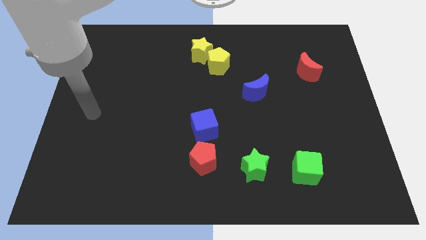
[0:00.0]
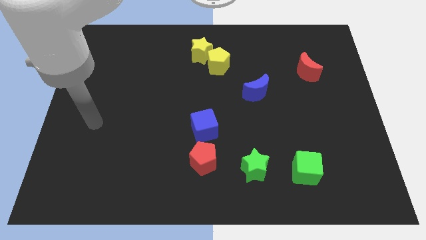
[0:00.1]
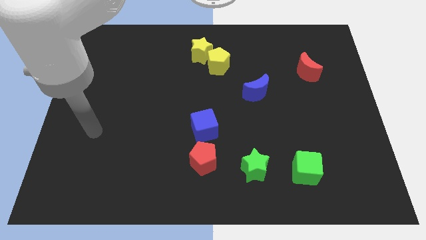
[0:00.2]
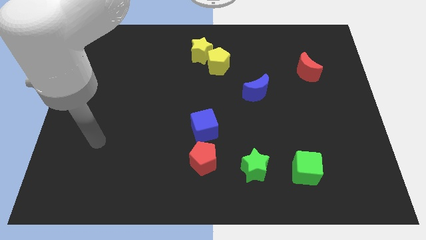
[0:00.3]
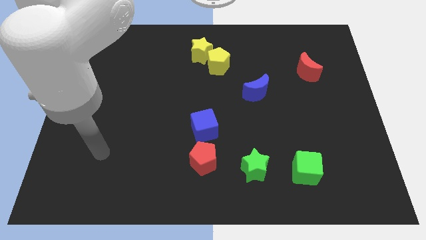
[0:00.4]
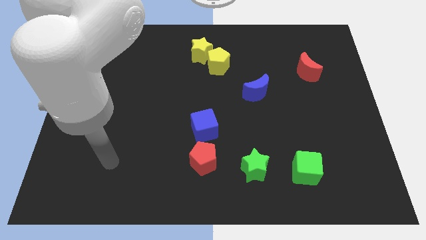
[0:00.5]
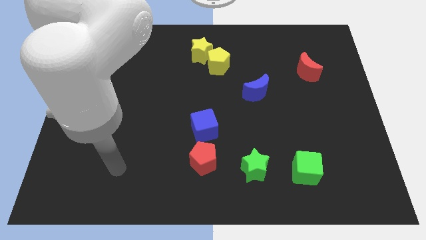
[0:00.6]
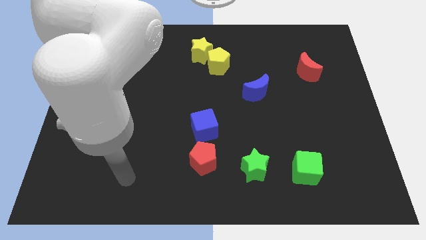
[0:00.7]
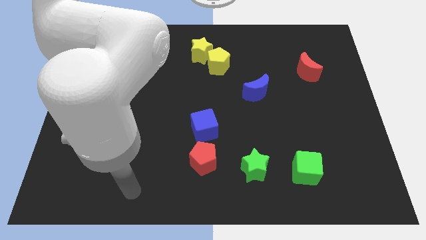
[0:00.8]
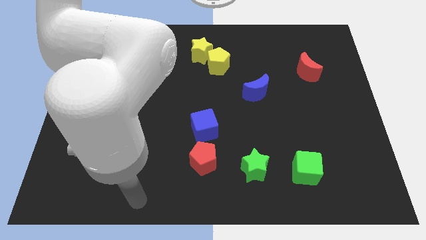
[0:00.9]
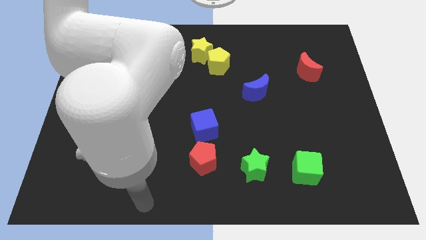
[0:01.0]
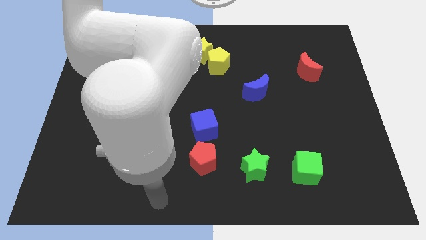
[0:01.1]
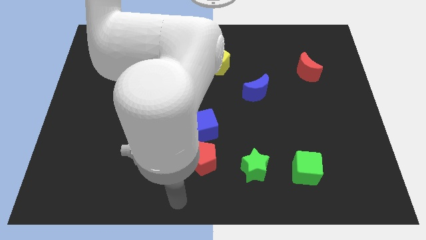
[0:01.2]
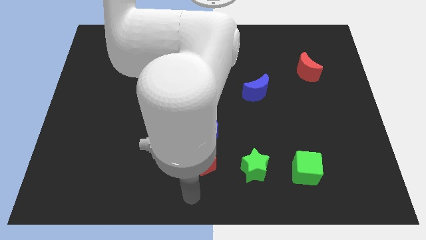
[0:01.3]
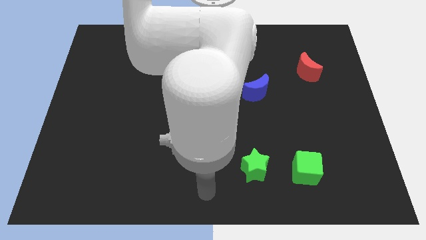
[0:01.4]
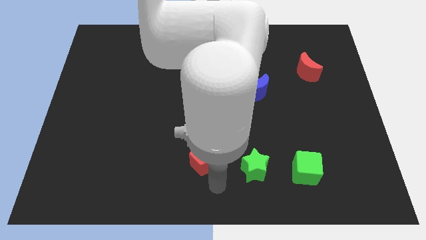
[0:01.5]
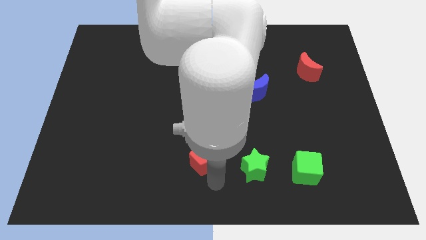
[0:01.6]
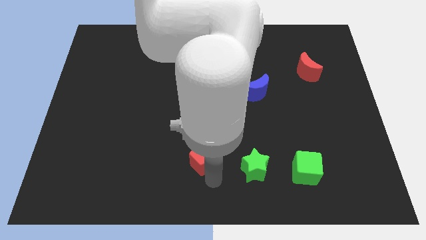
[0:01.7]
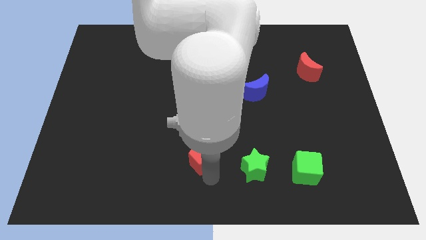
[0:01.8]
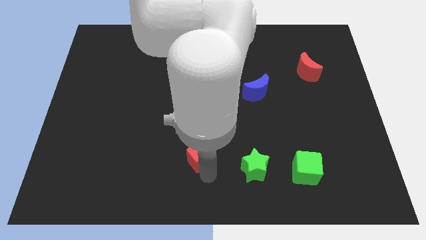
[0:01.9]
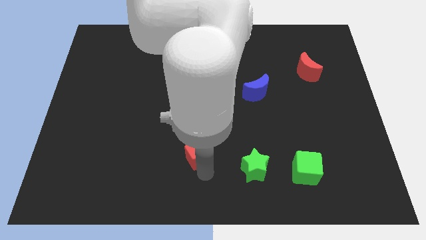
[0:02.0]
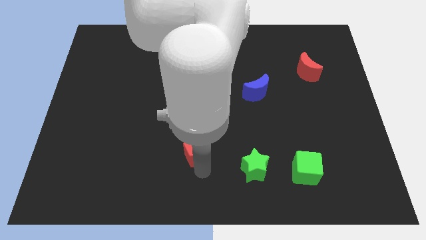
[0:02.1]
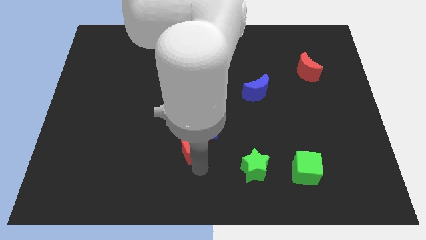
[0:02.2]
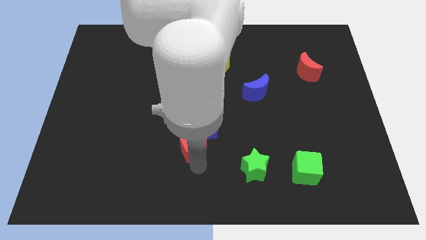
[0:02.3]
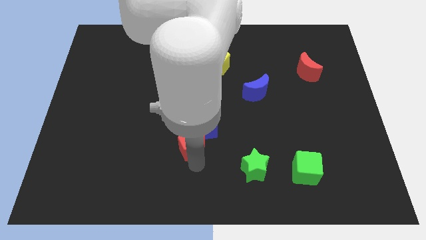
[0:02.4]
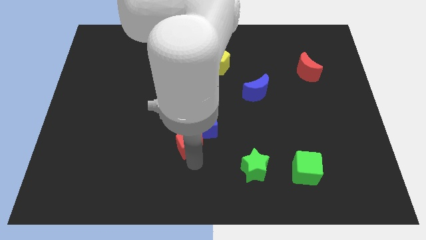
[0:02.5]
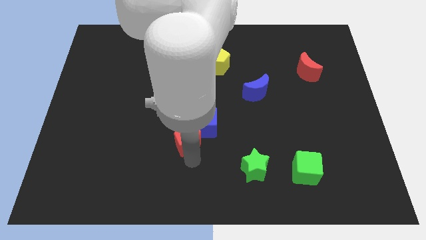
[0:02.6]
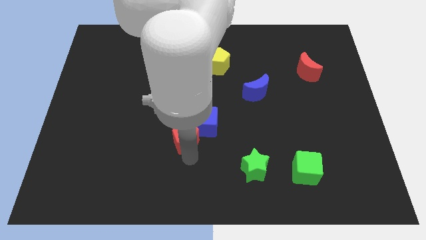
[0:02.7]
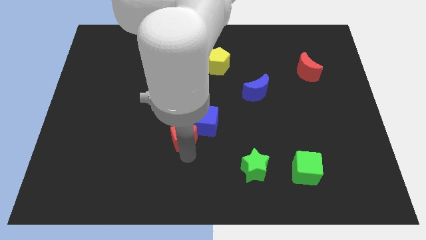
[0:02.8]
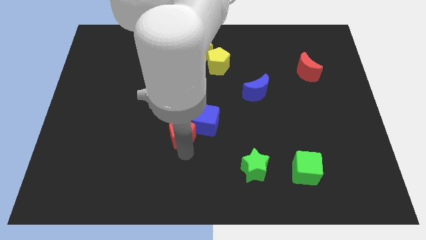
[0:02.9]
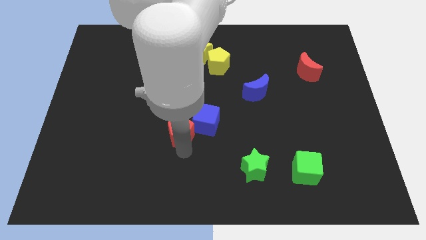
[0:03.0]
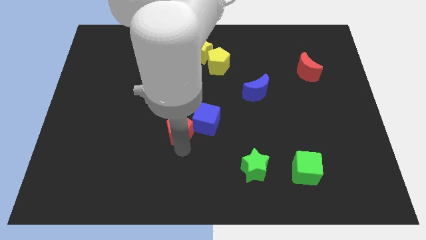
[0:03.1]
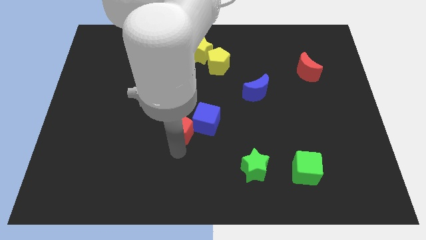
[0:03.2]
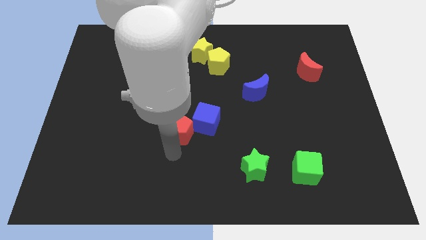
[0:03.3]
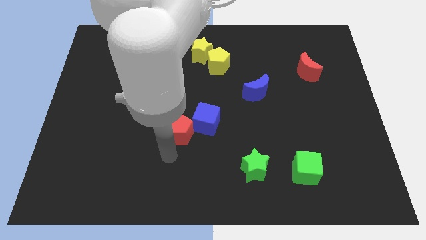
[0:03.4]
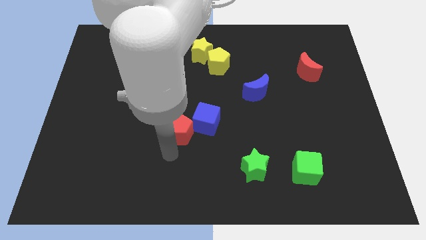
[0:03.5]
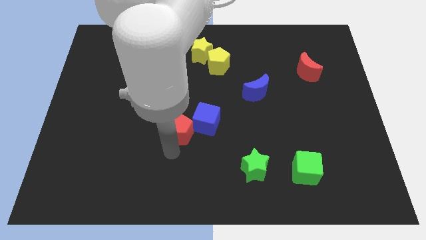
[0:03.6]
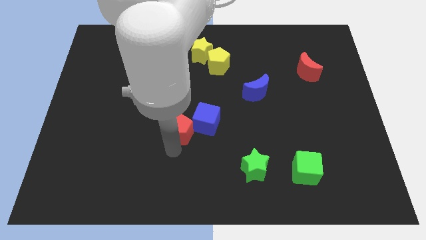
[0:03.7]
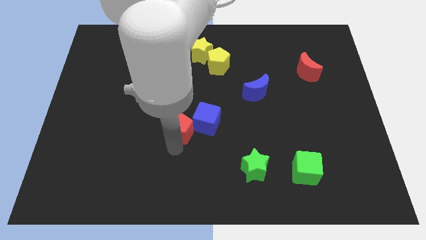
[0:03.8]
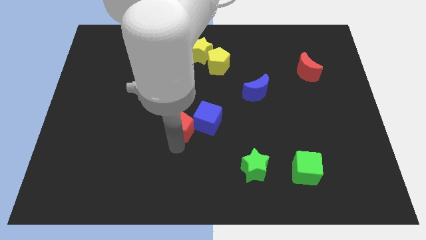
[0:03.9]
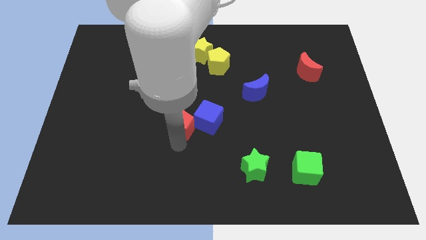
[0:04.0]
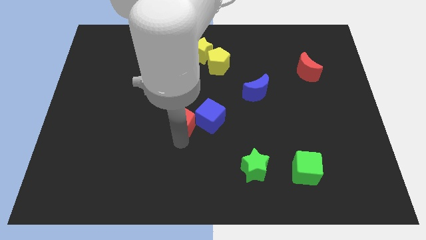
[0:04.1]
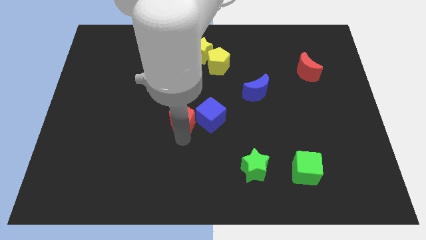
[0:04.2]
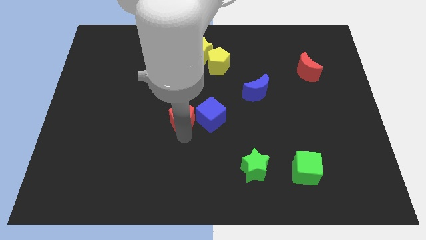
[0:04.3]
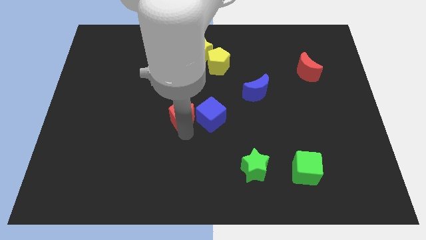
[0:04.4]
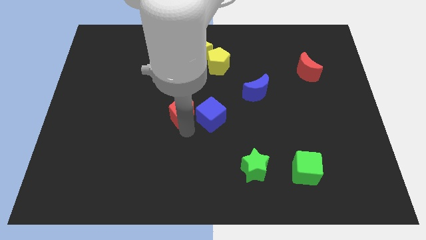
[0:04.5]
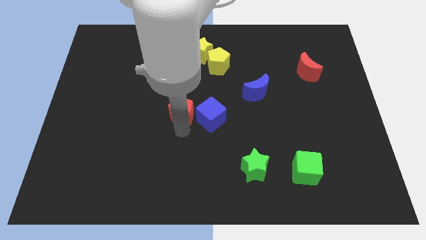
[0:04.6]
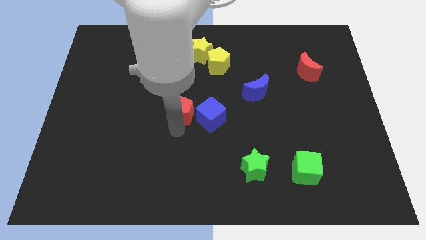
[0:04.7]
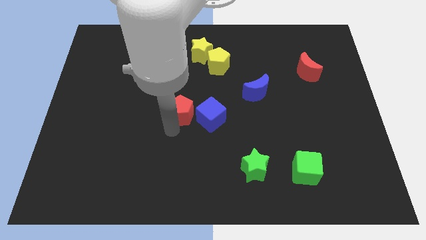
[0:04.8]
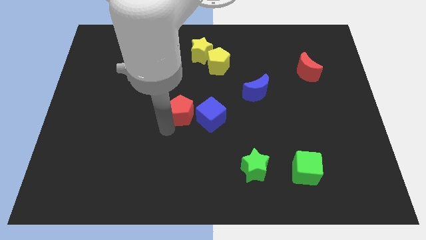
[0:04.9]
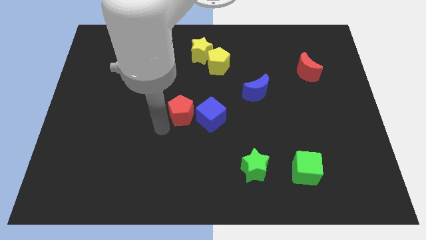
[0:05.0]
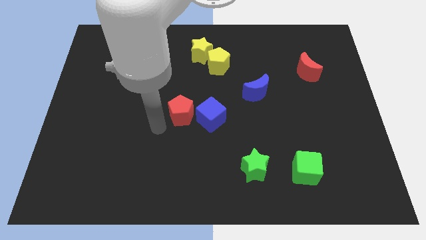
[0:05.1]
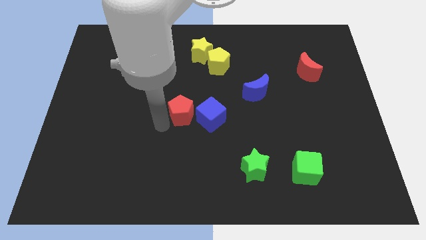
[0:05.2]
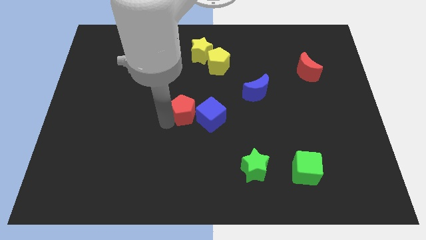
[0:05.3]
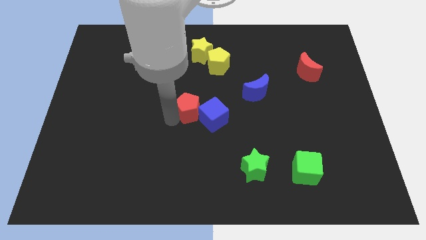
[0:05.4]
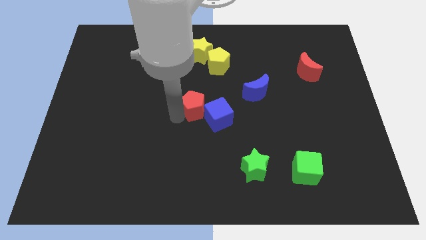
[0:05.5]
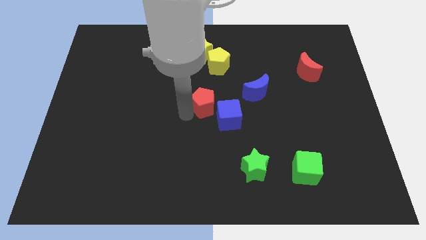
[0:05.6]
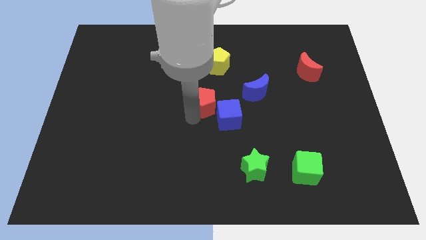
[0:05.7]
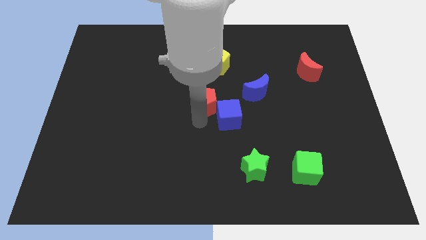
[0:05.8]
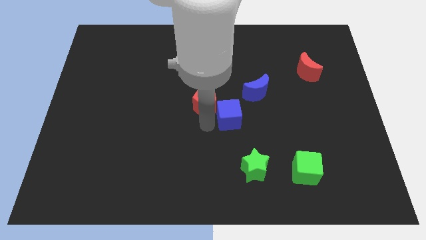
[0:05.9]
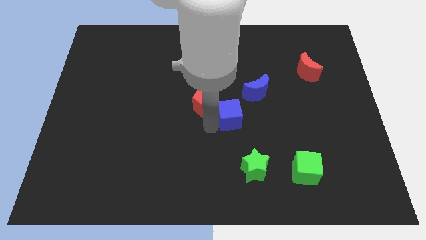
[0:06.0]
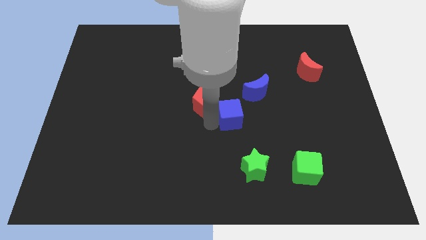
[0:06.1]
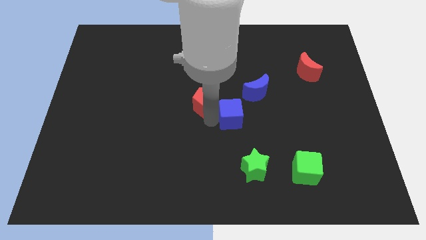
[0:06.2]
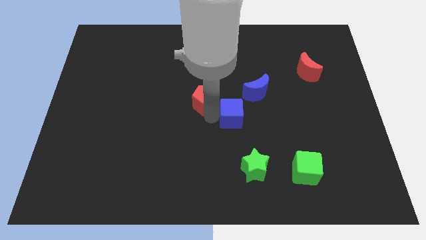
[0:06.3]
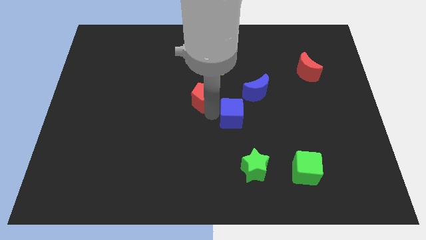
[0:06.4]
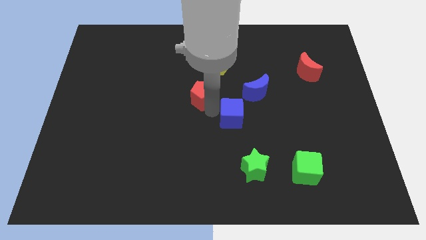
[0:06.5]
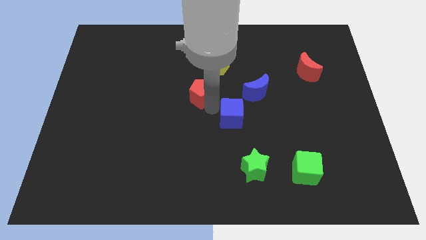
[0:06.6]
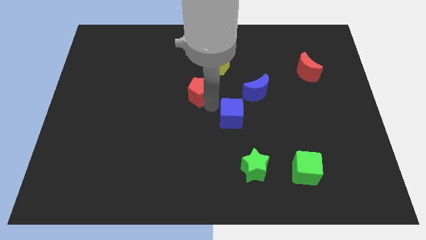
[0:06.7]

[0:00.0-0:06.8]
push the red pentagon to the bottom left side of the yellow pentagon

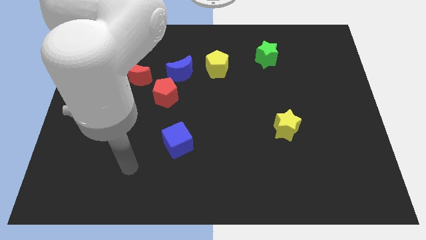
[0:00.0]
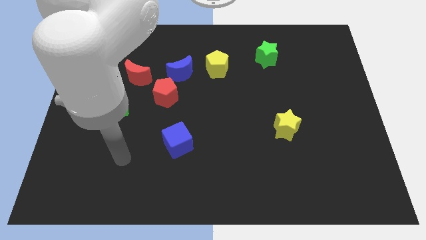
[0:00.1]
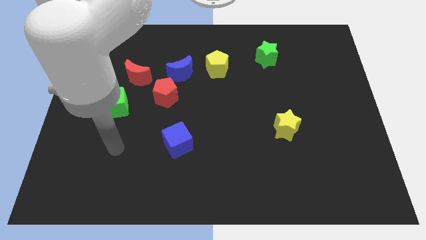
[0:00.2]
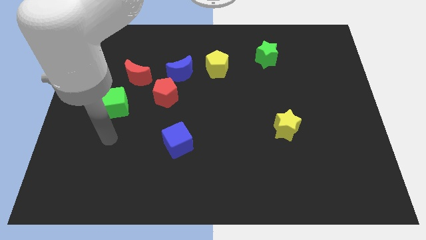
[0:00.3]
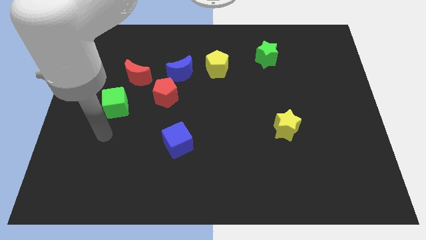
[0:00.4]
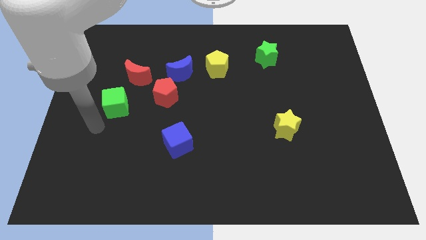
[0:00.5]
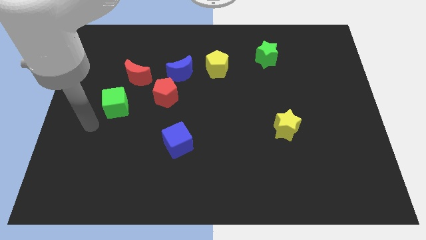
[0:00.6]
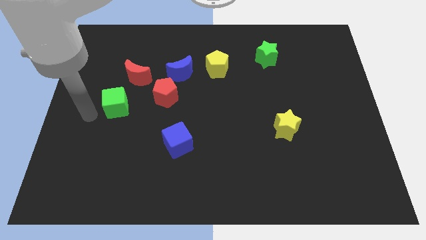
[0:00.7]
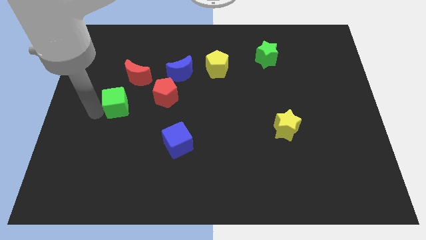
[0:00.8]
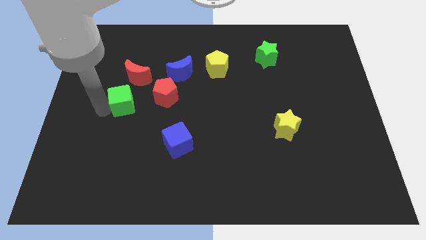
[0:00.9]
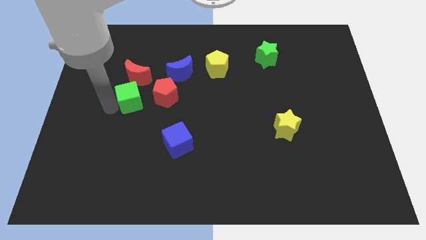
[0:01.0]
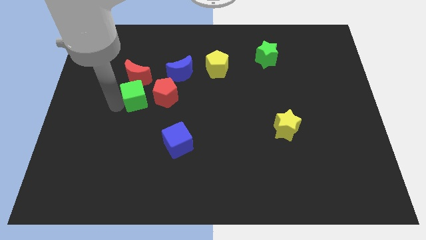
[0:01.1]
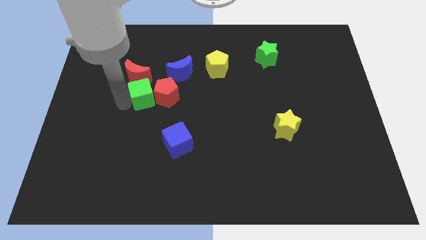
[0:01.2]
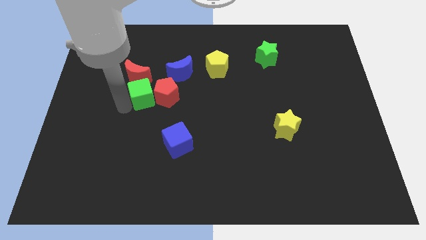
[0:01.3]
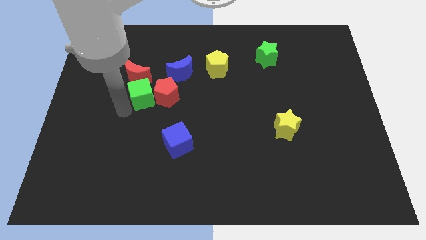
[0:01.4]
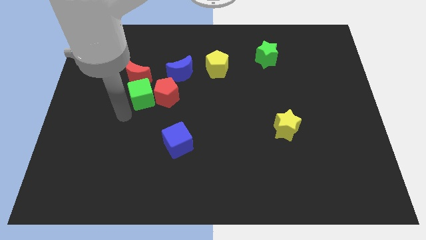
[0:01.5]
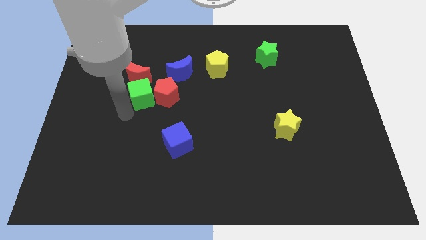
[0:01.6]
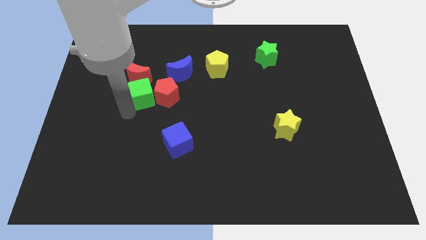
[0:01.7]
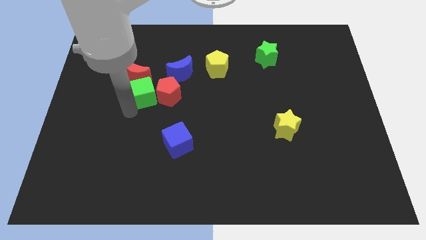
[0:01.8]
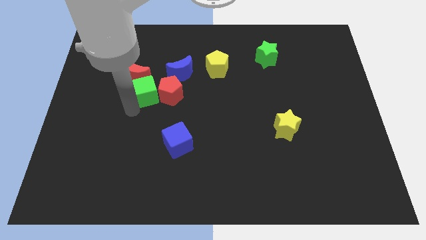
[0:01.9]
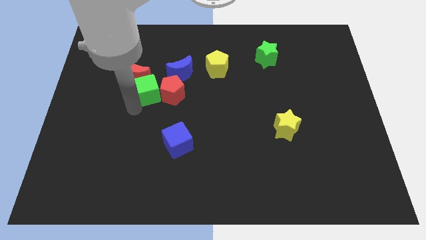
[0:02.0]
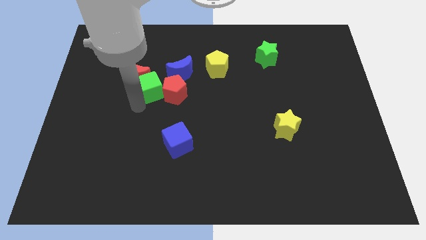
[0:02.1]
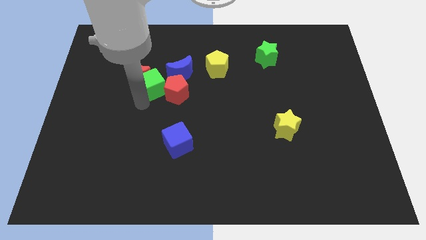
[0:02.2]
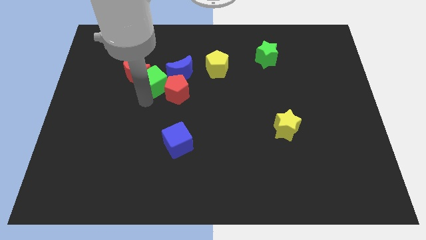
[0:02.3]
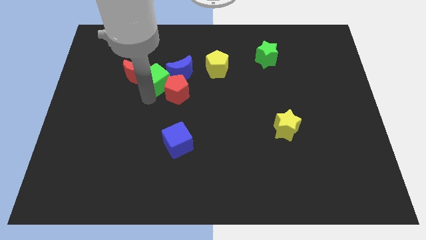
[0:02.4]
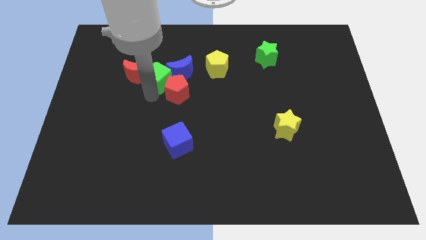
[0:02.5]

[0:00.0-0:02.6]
move the green cube to the top of the red pentagon
